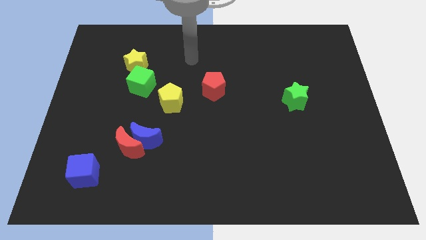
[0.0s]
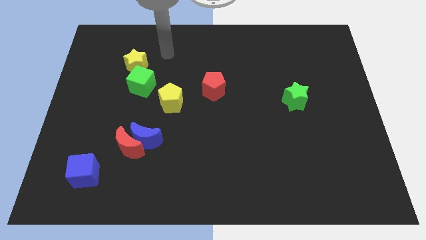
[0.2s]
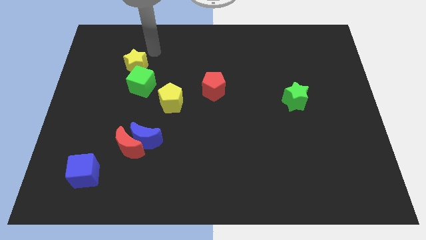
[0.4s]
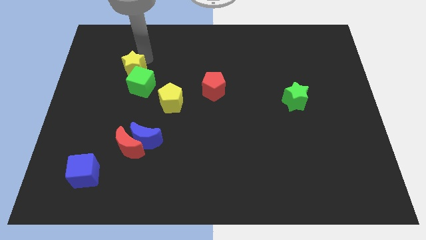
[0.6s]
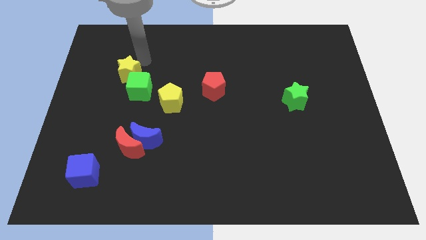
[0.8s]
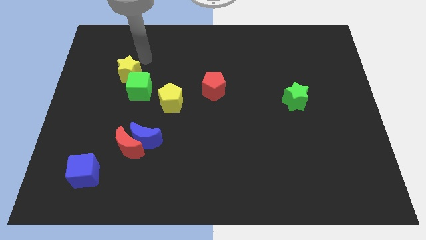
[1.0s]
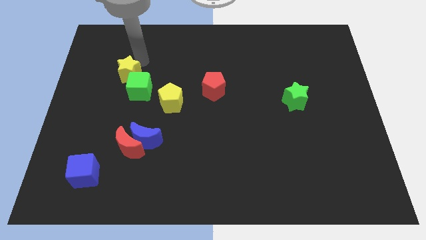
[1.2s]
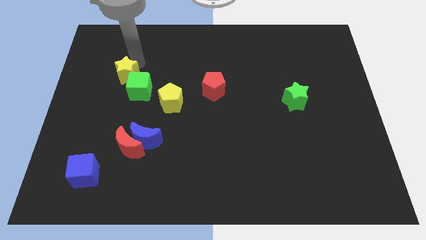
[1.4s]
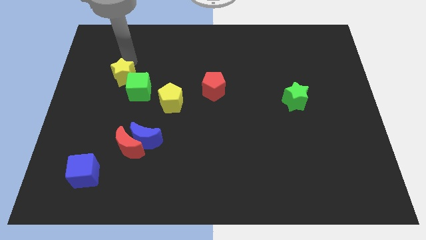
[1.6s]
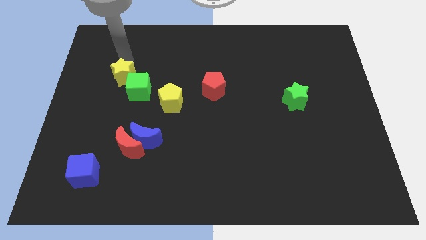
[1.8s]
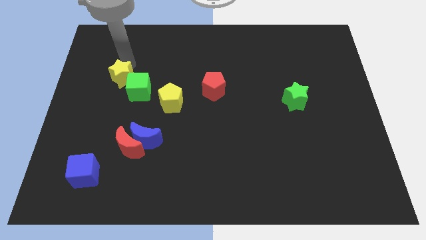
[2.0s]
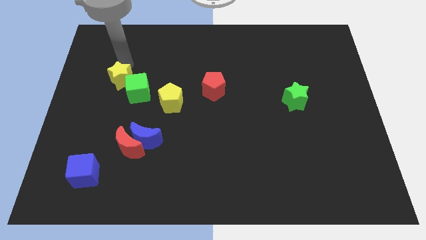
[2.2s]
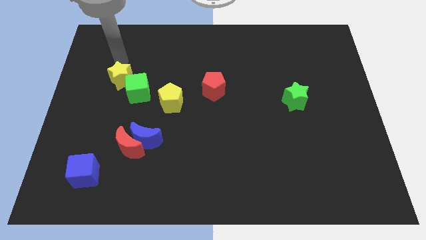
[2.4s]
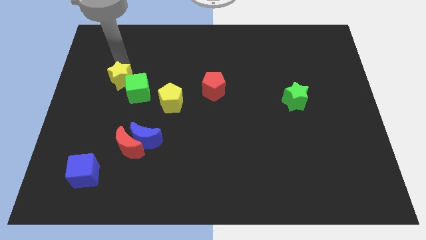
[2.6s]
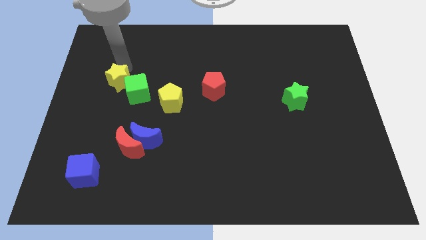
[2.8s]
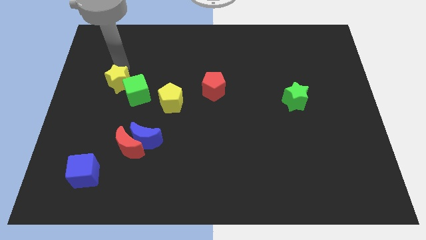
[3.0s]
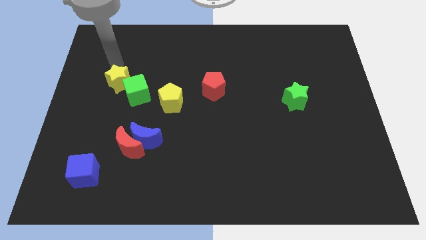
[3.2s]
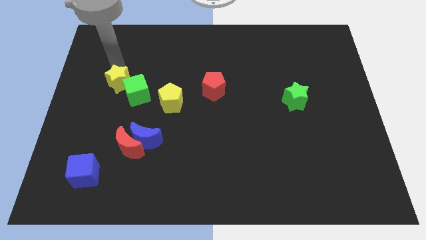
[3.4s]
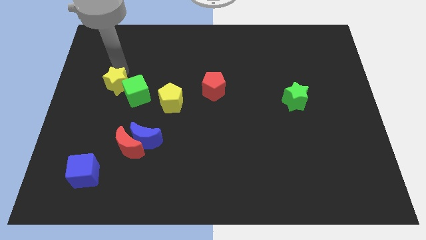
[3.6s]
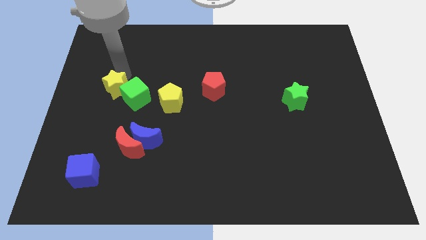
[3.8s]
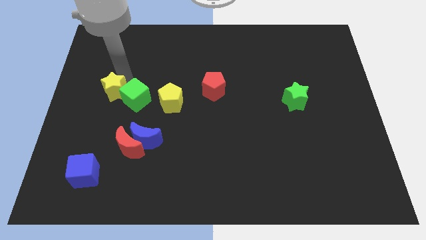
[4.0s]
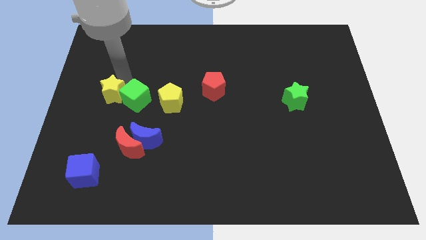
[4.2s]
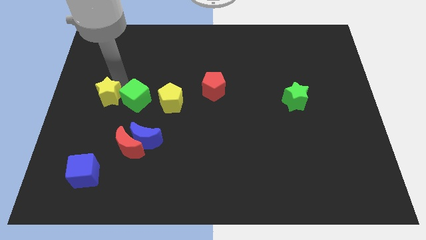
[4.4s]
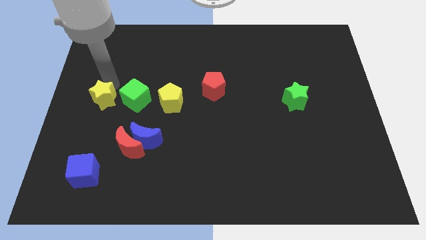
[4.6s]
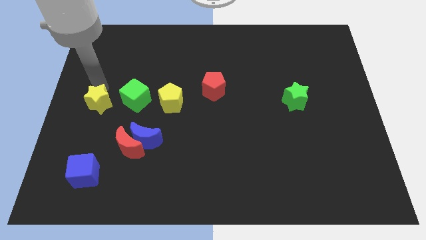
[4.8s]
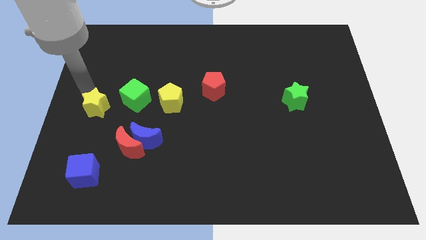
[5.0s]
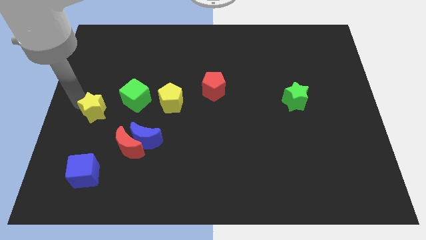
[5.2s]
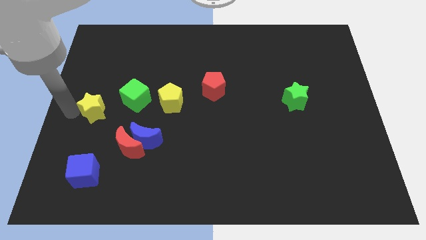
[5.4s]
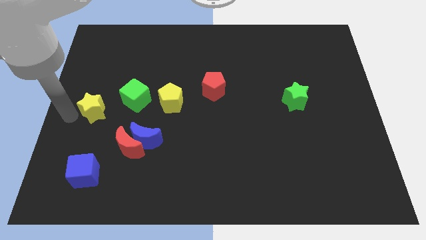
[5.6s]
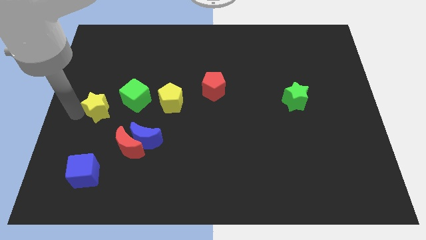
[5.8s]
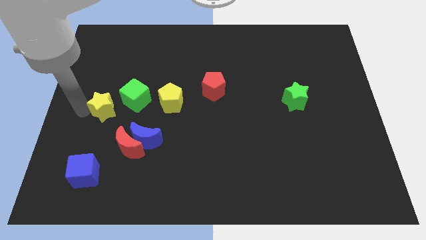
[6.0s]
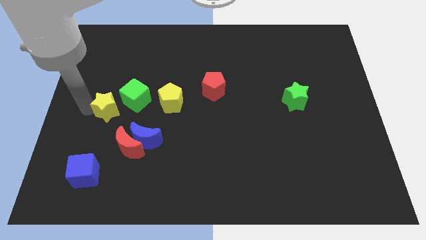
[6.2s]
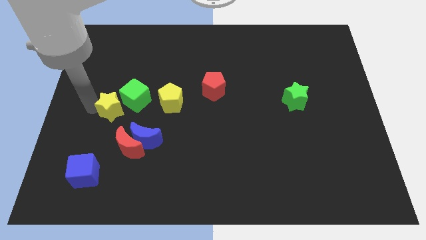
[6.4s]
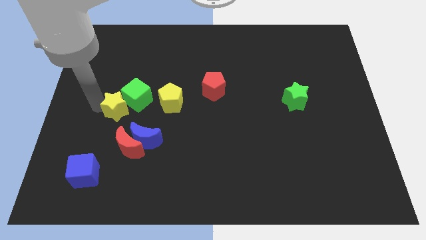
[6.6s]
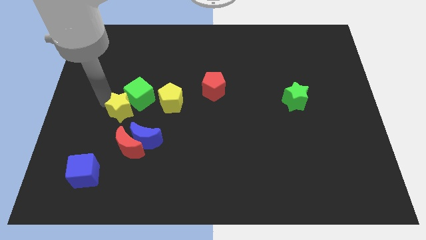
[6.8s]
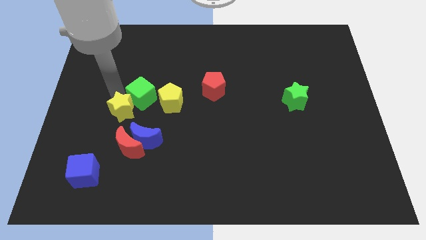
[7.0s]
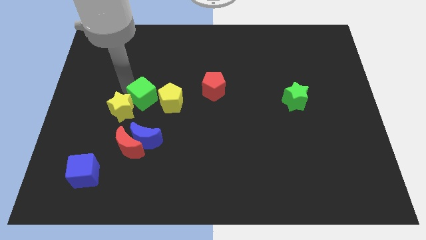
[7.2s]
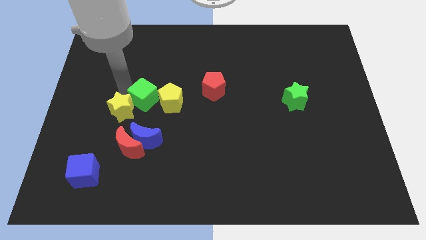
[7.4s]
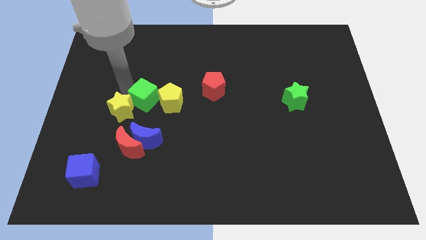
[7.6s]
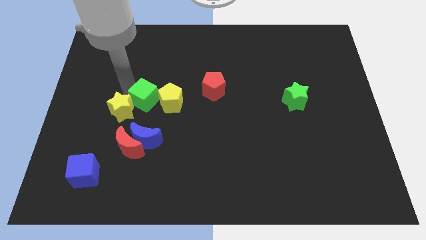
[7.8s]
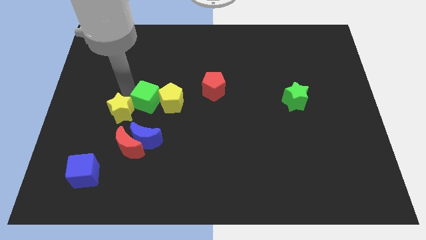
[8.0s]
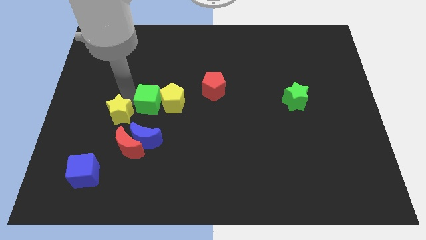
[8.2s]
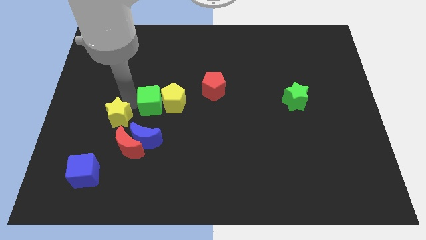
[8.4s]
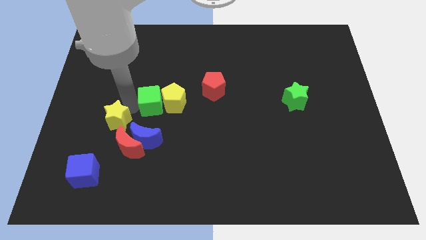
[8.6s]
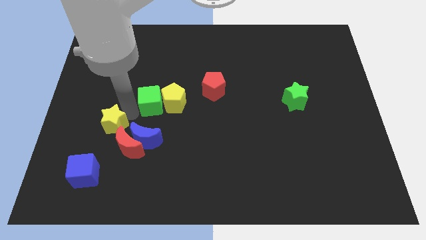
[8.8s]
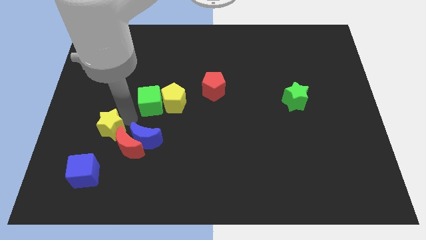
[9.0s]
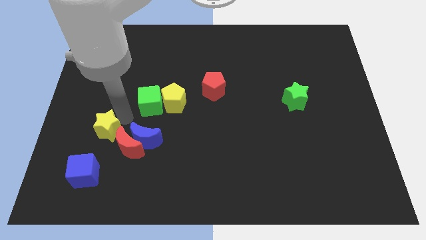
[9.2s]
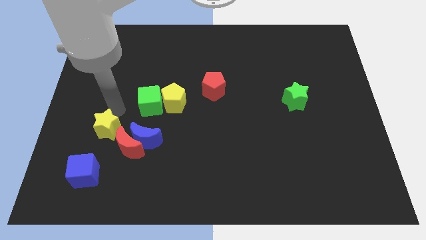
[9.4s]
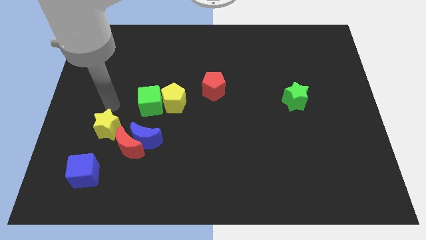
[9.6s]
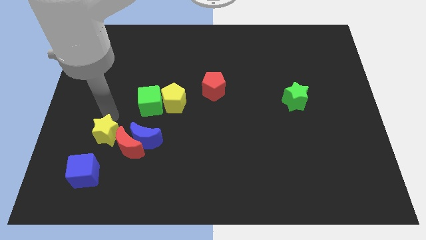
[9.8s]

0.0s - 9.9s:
move the yellow star towards the red moon

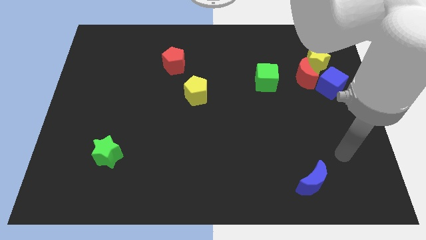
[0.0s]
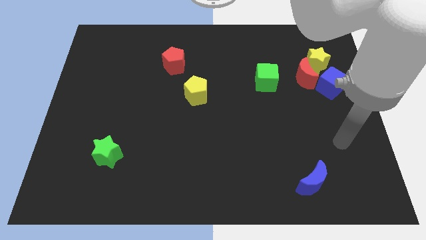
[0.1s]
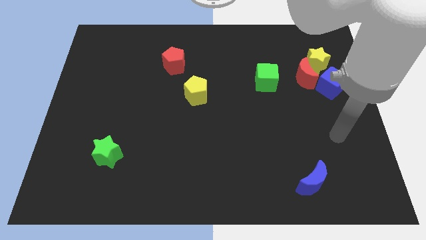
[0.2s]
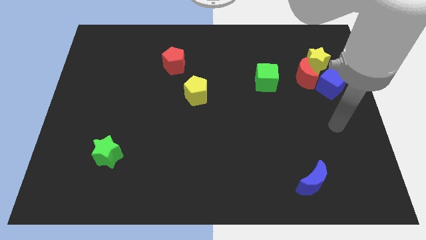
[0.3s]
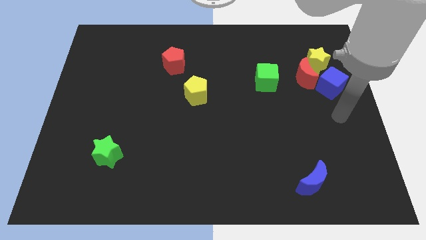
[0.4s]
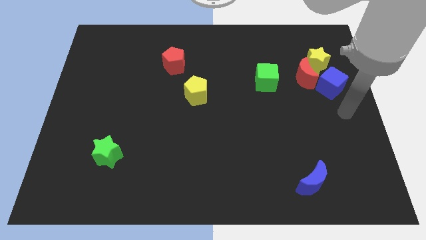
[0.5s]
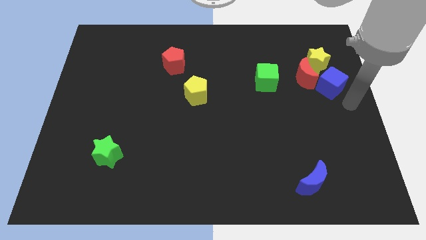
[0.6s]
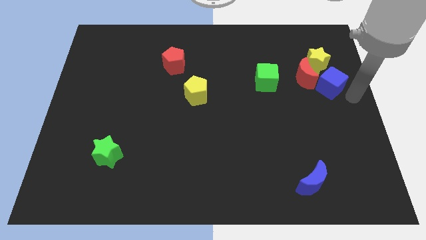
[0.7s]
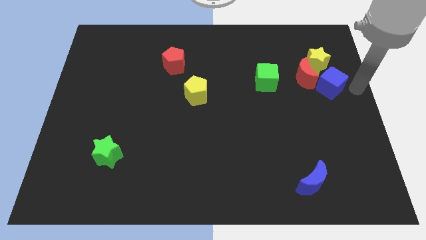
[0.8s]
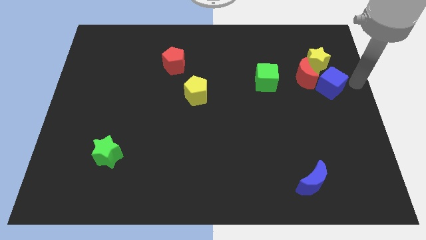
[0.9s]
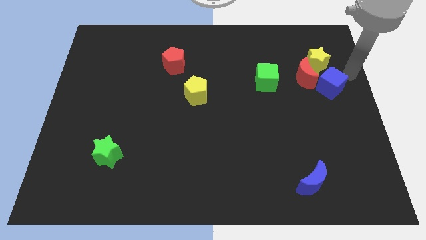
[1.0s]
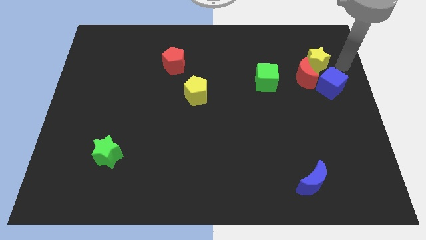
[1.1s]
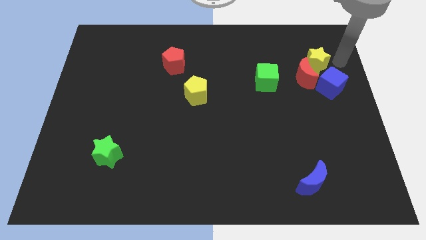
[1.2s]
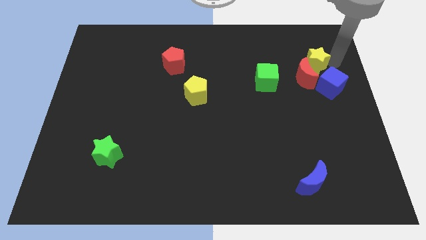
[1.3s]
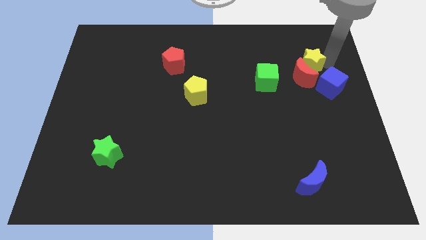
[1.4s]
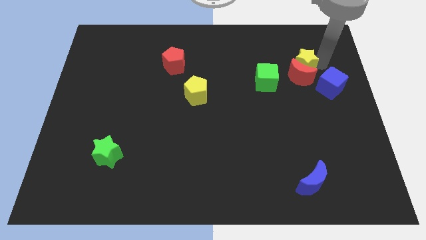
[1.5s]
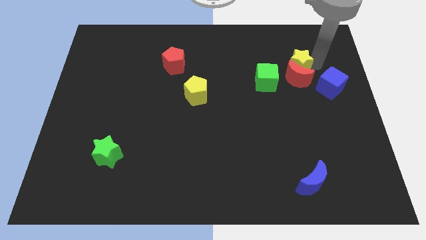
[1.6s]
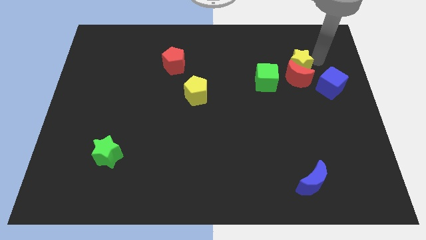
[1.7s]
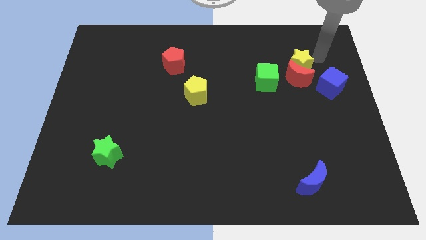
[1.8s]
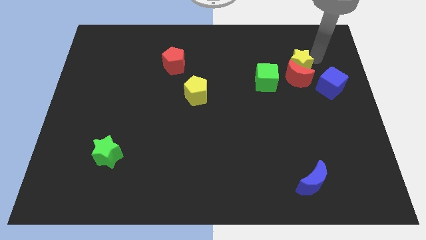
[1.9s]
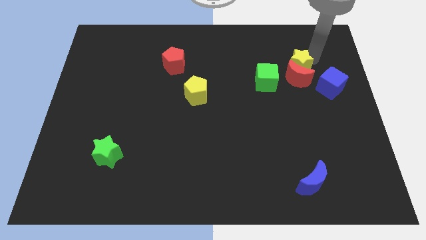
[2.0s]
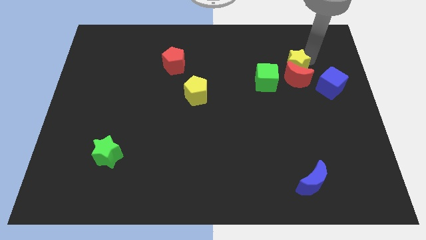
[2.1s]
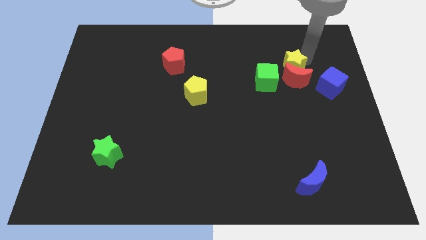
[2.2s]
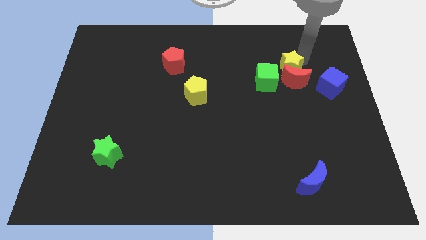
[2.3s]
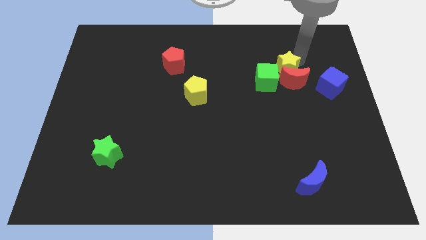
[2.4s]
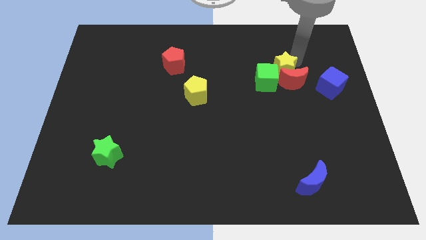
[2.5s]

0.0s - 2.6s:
move the yellow star towards the green cube

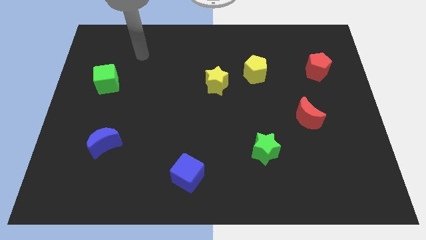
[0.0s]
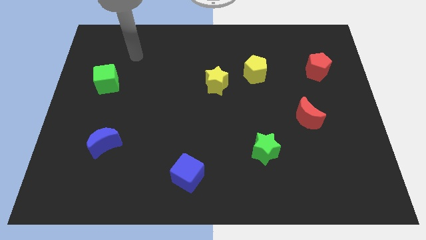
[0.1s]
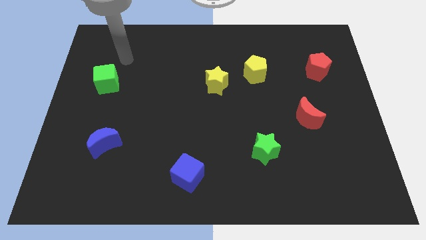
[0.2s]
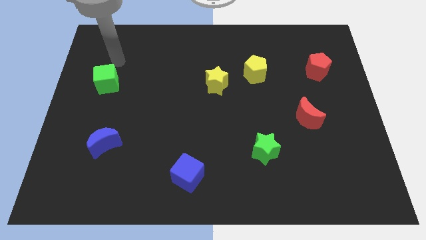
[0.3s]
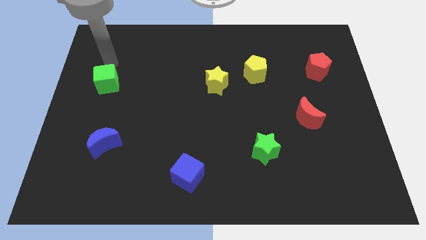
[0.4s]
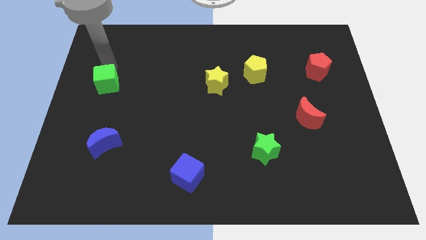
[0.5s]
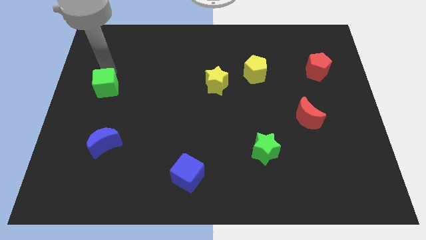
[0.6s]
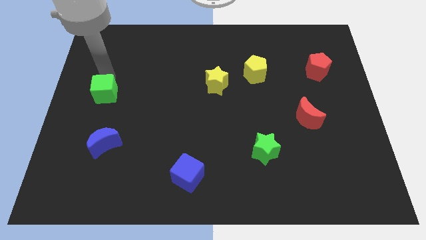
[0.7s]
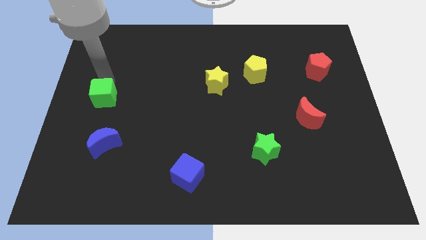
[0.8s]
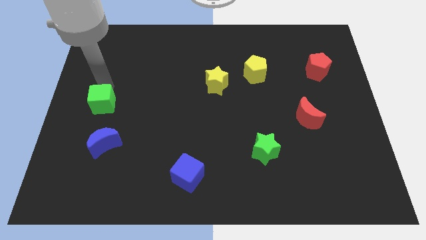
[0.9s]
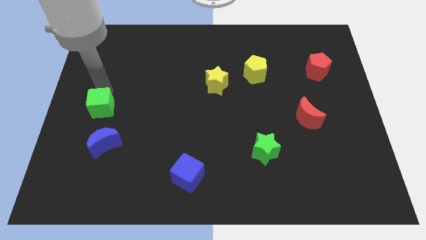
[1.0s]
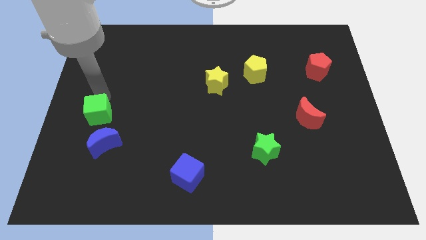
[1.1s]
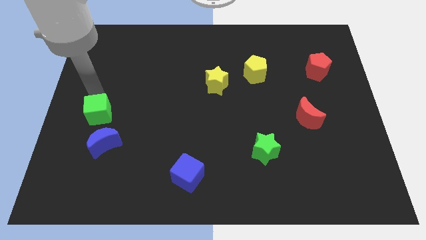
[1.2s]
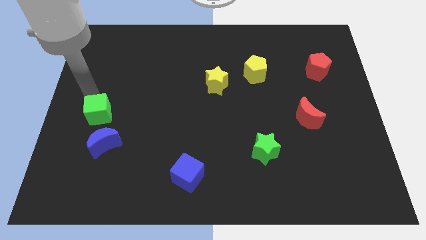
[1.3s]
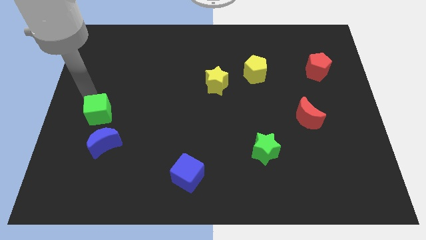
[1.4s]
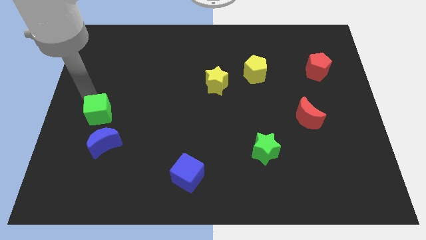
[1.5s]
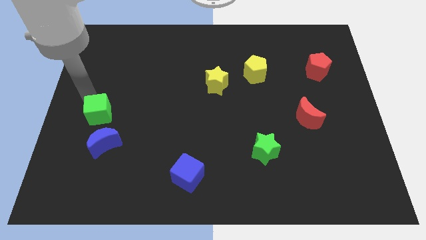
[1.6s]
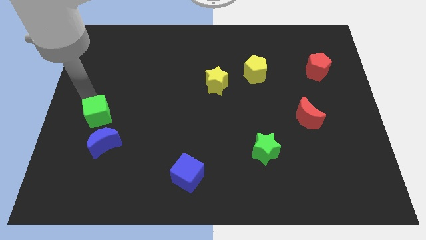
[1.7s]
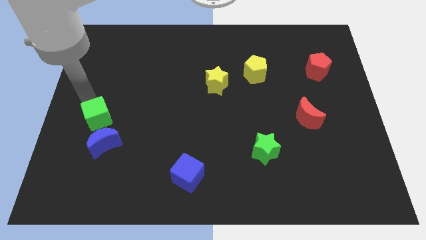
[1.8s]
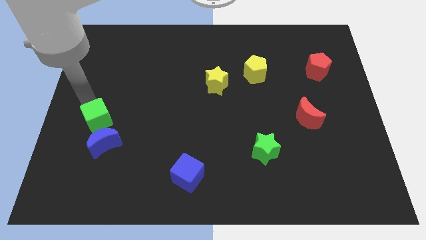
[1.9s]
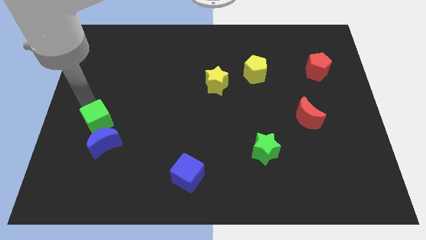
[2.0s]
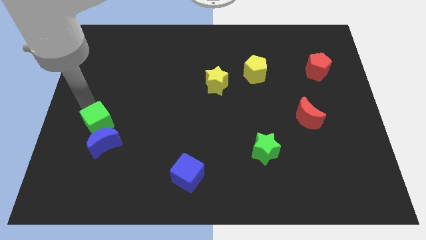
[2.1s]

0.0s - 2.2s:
put the green cube close to the blue moon
